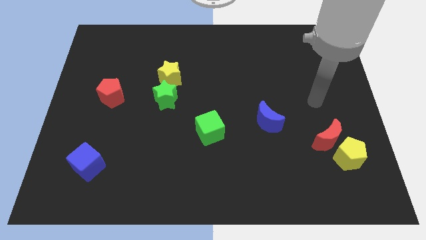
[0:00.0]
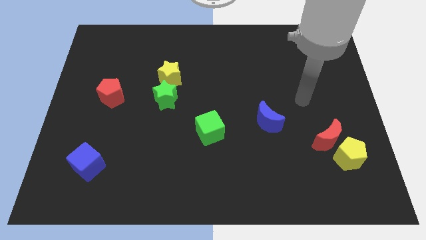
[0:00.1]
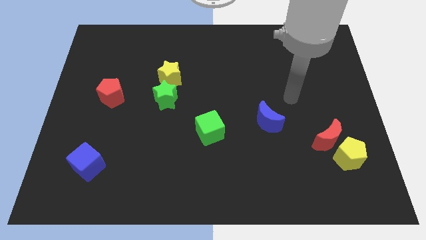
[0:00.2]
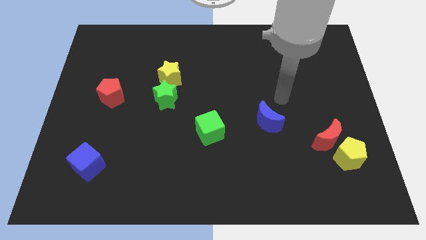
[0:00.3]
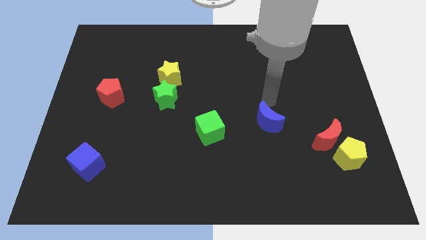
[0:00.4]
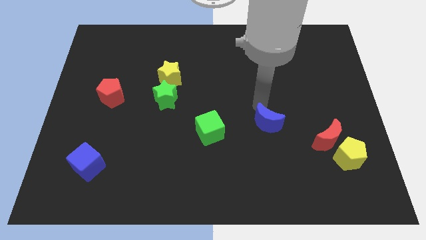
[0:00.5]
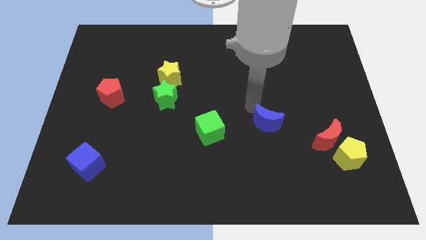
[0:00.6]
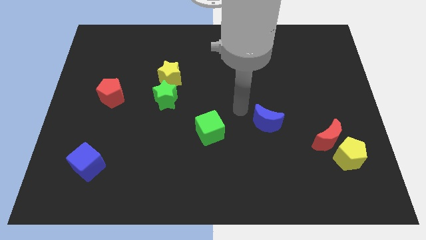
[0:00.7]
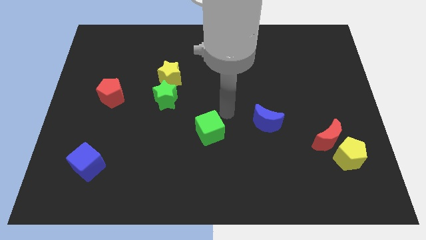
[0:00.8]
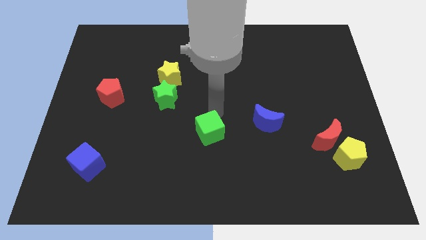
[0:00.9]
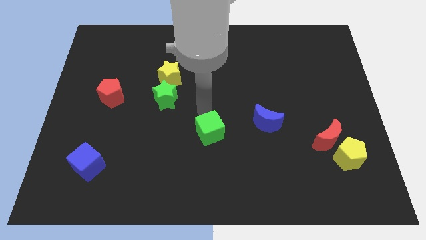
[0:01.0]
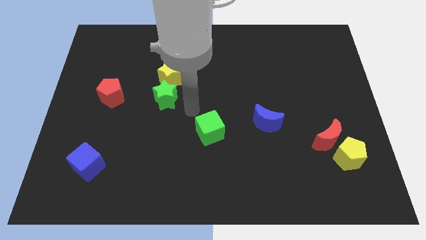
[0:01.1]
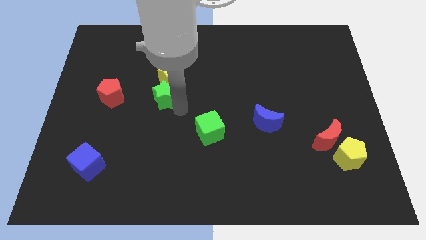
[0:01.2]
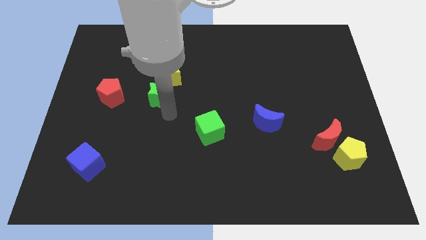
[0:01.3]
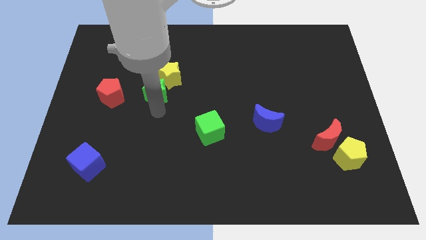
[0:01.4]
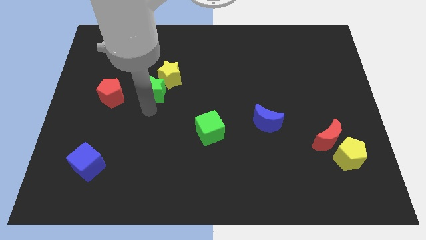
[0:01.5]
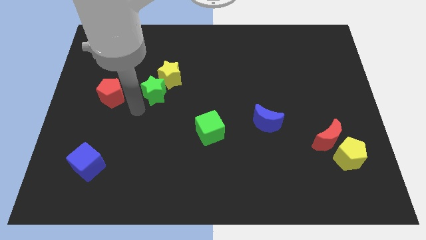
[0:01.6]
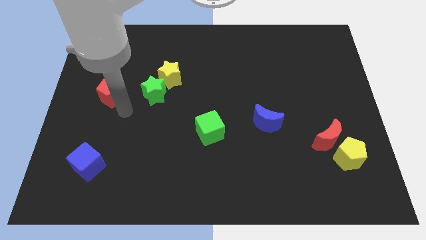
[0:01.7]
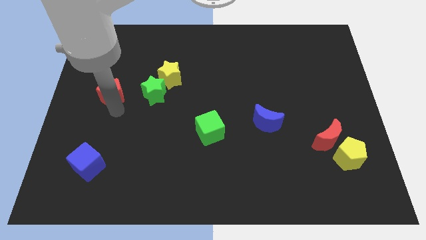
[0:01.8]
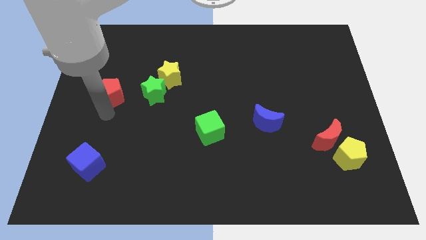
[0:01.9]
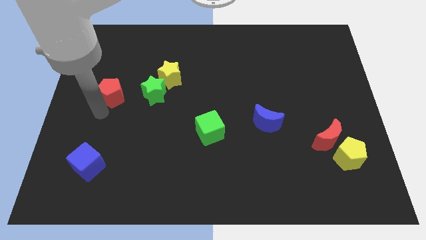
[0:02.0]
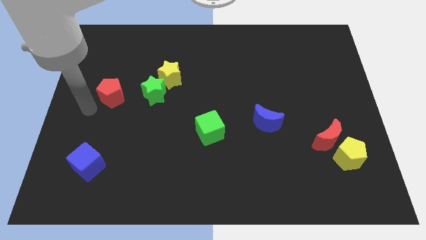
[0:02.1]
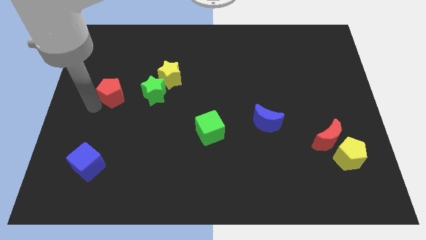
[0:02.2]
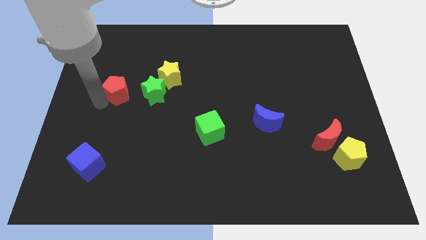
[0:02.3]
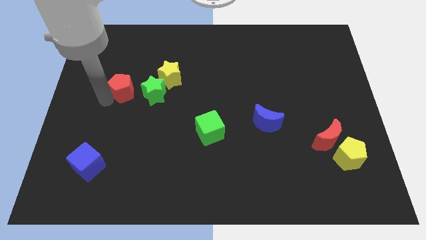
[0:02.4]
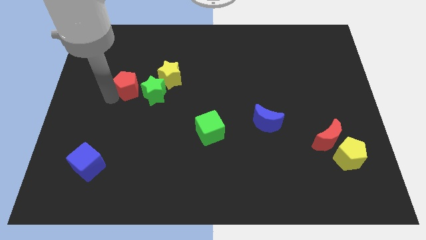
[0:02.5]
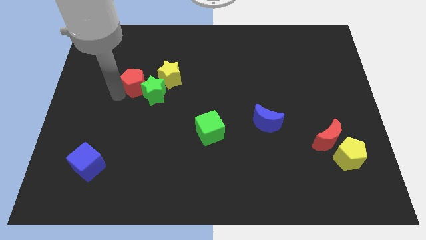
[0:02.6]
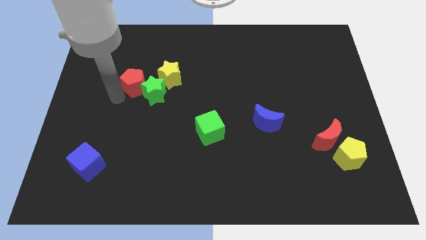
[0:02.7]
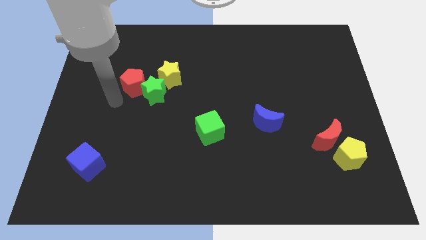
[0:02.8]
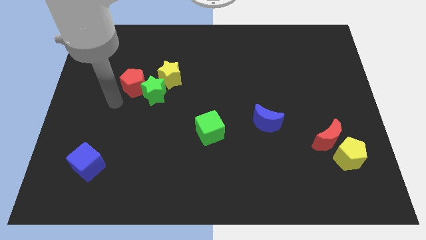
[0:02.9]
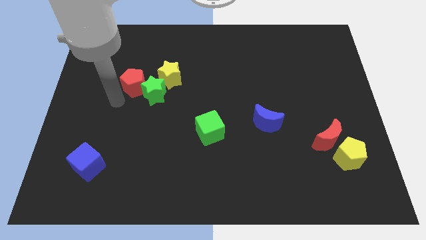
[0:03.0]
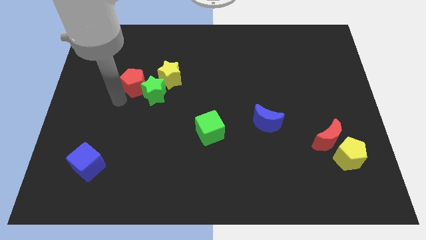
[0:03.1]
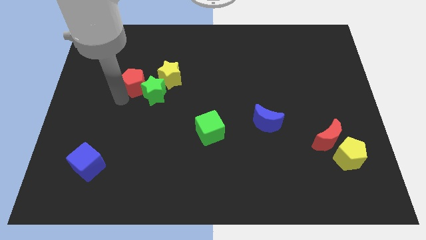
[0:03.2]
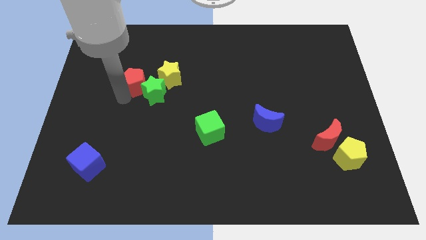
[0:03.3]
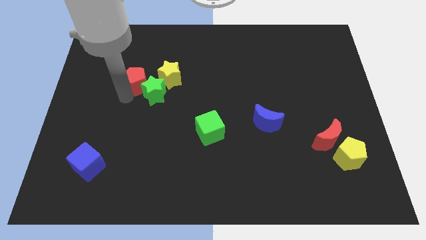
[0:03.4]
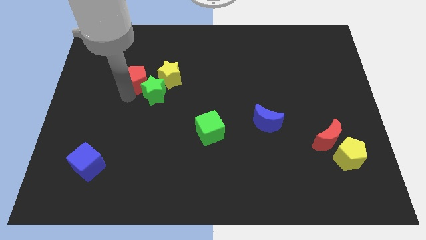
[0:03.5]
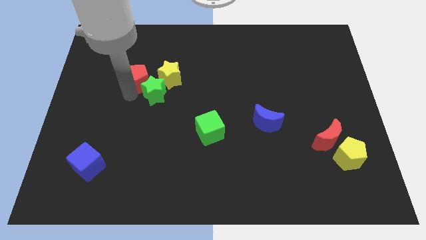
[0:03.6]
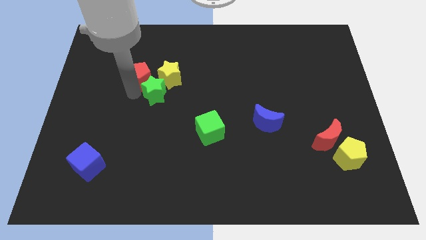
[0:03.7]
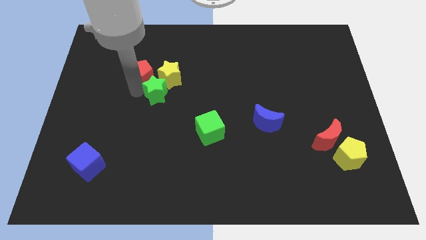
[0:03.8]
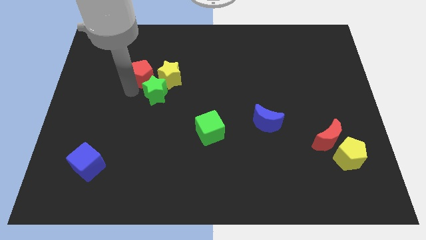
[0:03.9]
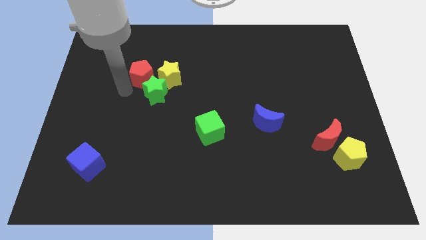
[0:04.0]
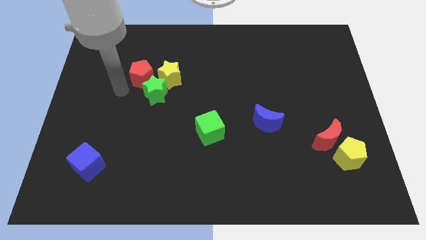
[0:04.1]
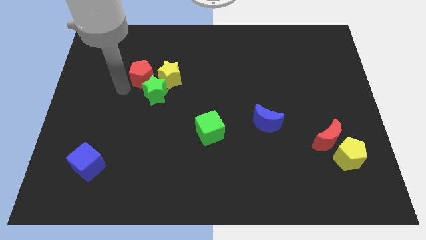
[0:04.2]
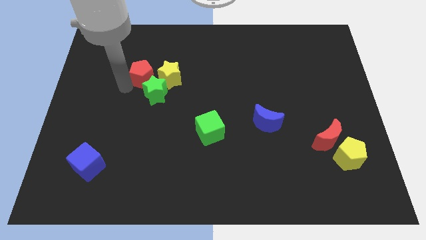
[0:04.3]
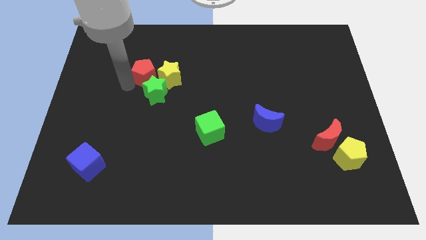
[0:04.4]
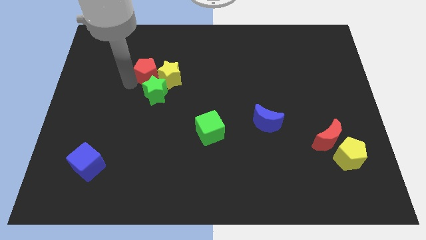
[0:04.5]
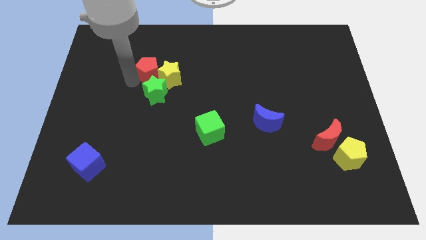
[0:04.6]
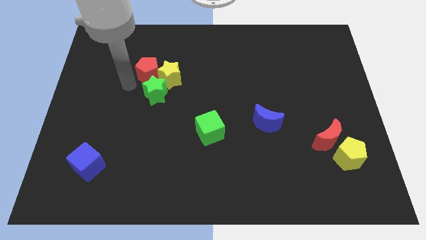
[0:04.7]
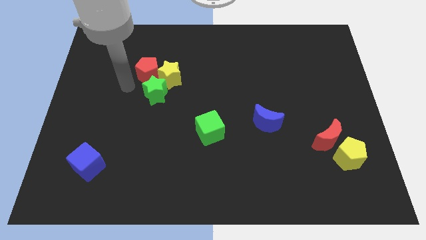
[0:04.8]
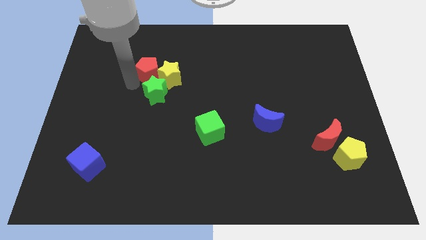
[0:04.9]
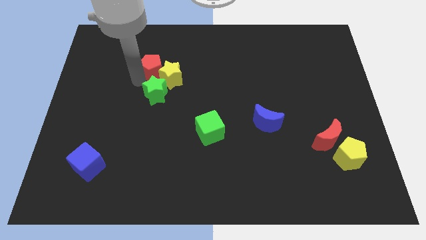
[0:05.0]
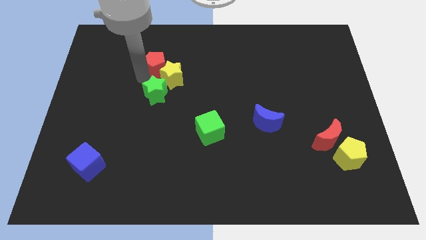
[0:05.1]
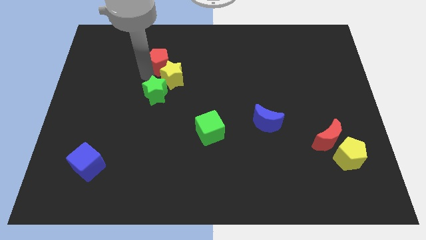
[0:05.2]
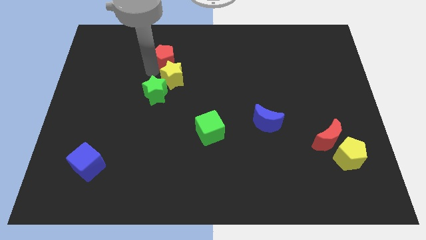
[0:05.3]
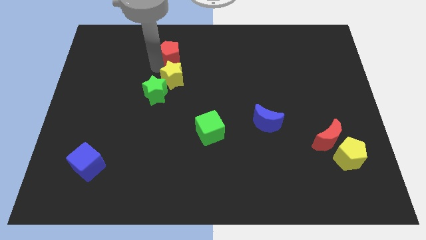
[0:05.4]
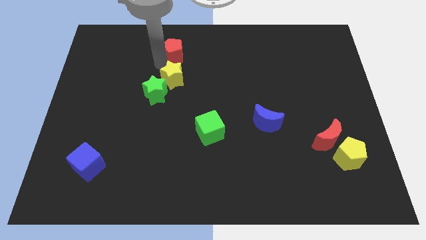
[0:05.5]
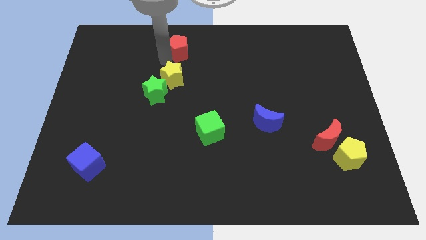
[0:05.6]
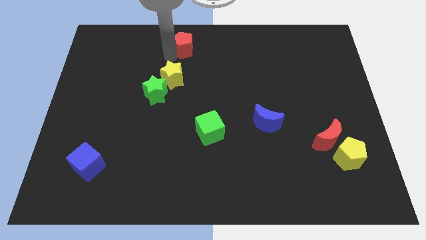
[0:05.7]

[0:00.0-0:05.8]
push the red pentagon to the top

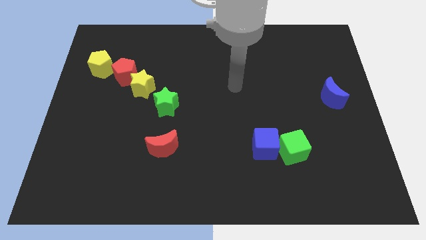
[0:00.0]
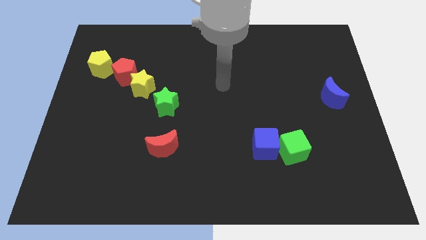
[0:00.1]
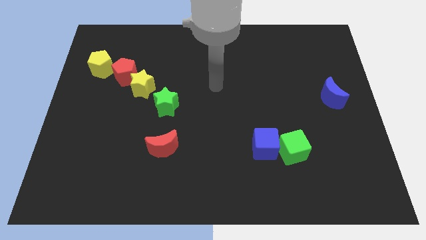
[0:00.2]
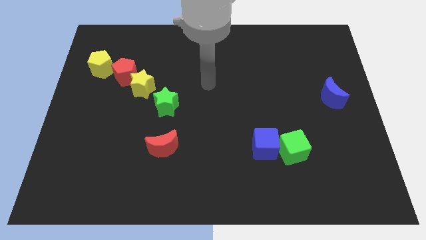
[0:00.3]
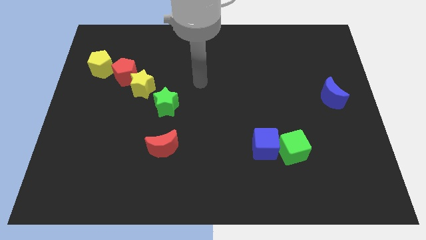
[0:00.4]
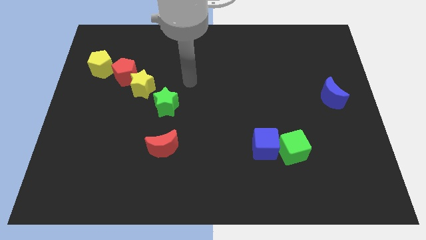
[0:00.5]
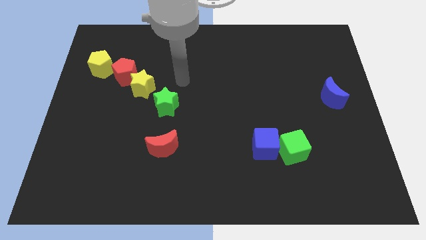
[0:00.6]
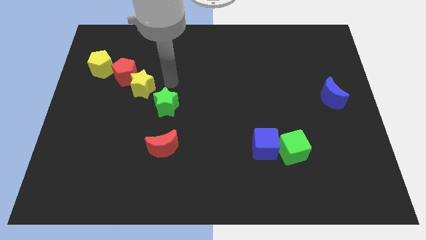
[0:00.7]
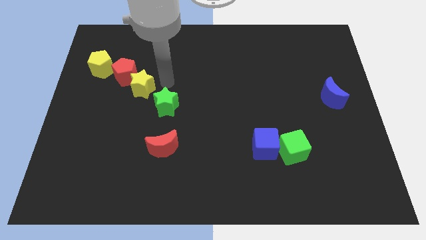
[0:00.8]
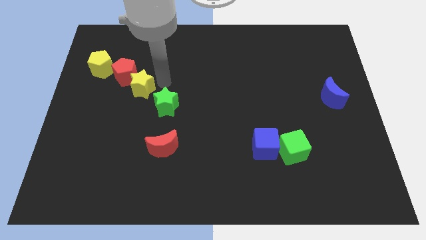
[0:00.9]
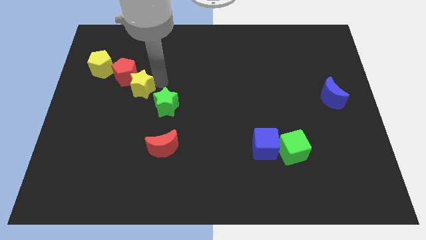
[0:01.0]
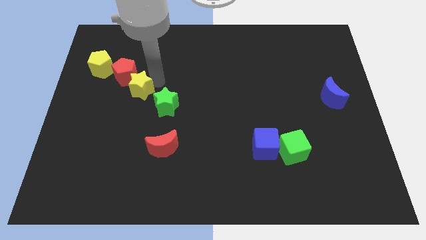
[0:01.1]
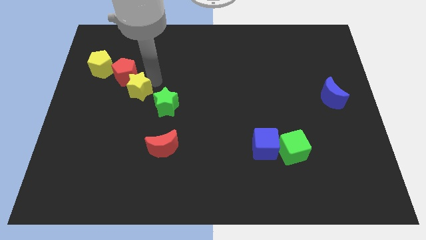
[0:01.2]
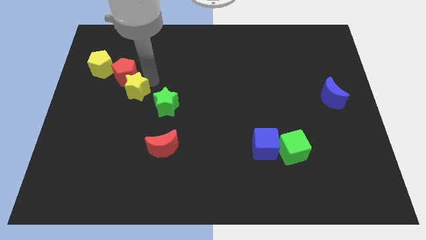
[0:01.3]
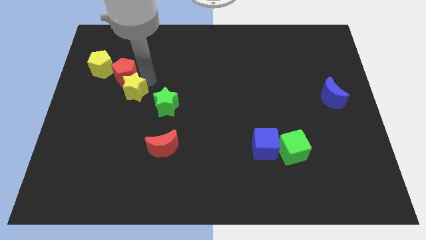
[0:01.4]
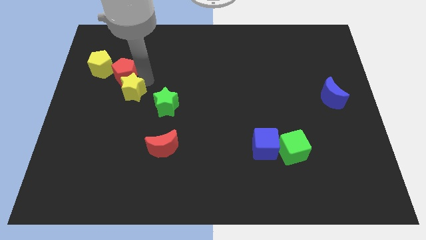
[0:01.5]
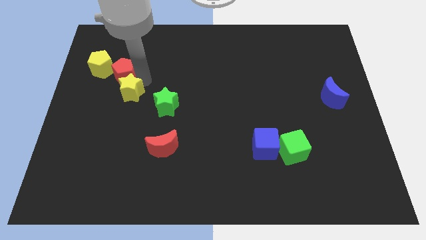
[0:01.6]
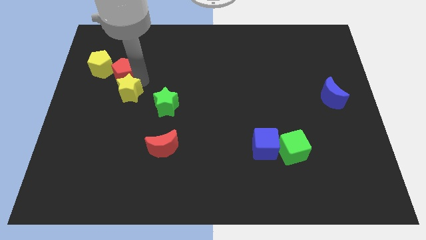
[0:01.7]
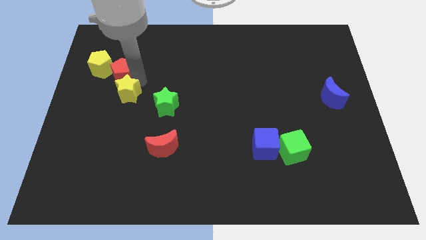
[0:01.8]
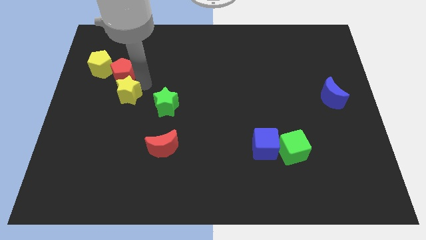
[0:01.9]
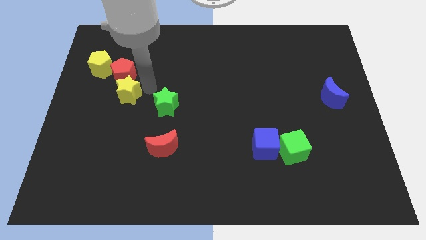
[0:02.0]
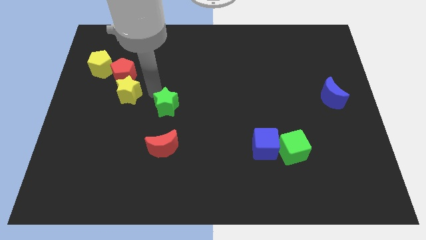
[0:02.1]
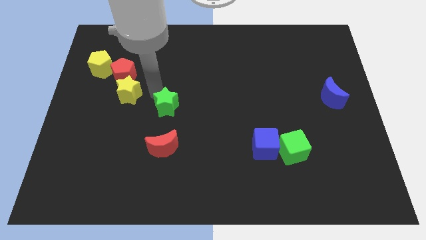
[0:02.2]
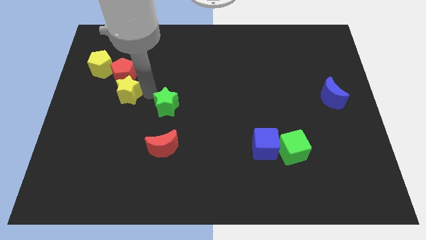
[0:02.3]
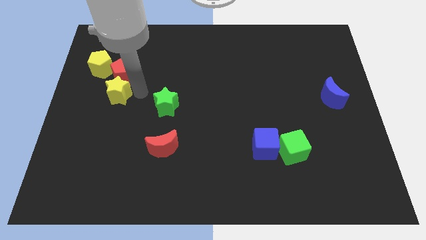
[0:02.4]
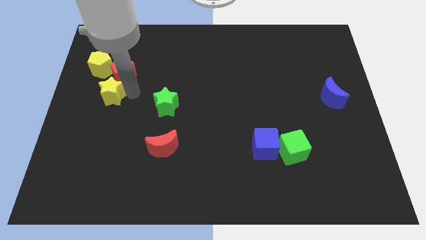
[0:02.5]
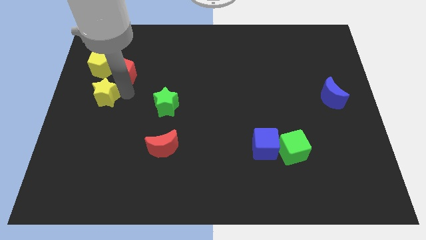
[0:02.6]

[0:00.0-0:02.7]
put the yellow star to the left side
